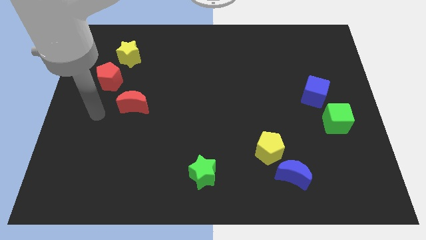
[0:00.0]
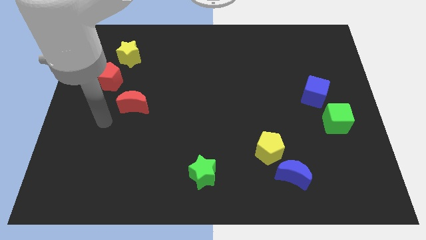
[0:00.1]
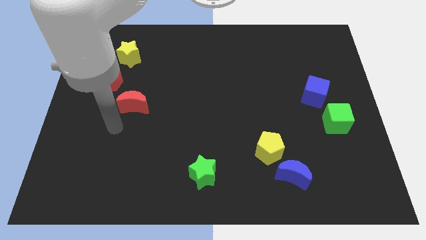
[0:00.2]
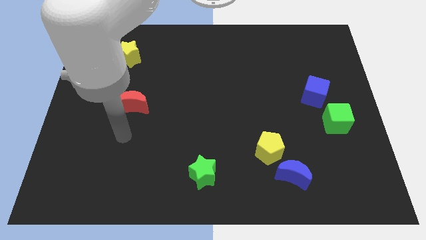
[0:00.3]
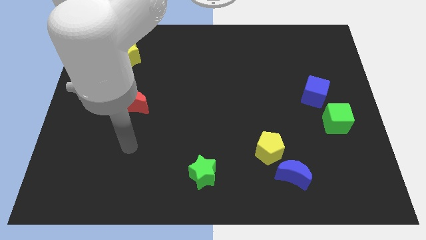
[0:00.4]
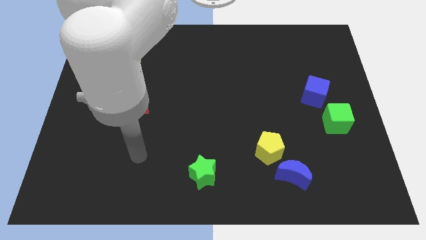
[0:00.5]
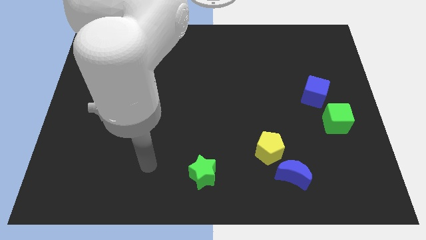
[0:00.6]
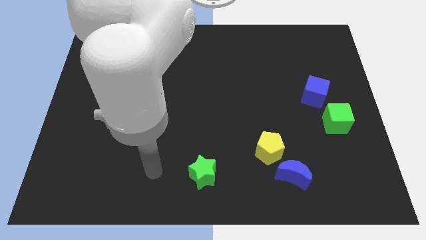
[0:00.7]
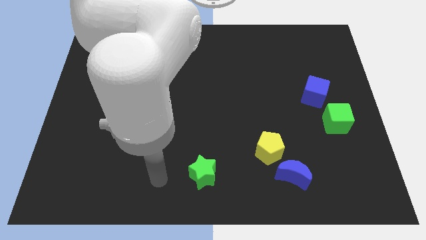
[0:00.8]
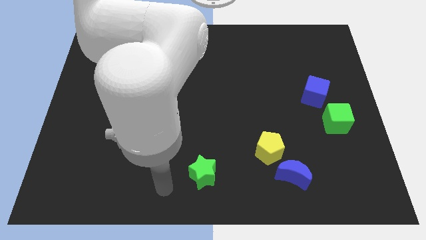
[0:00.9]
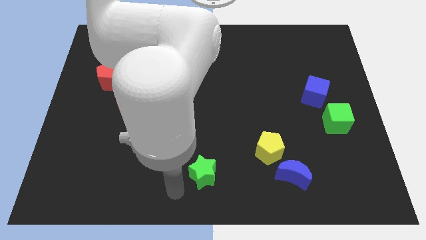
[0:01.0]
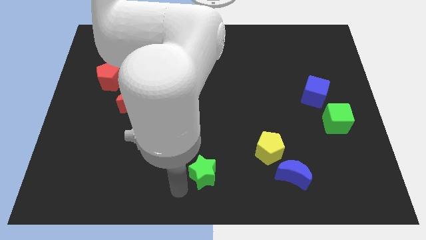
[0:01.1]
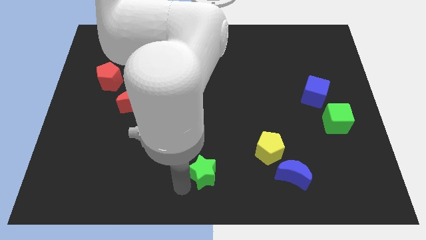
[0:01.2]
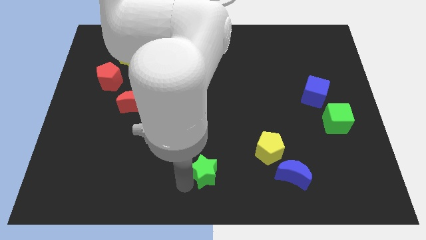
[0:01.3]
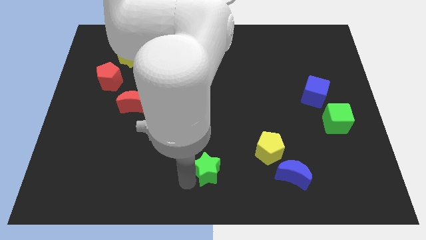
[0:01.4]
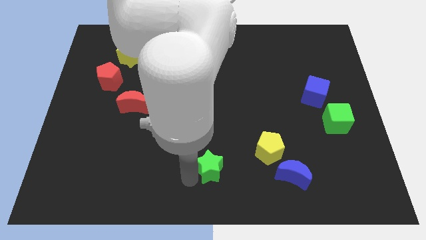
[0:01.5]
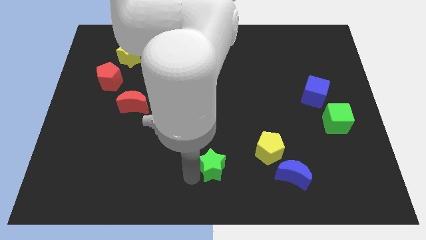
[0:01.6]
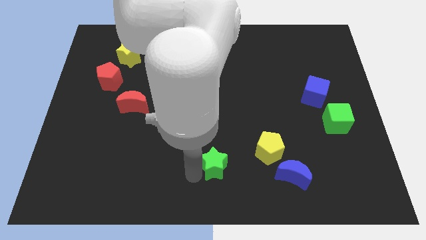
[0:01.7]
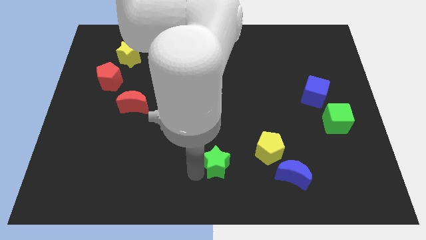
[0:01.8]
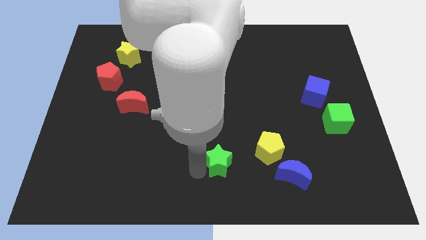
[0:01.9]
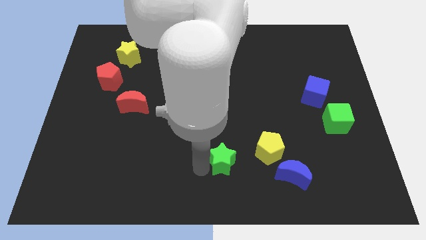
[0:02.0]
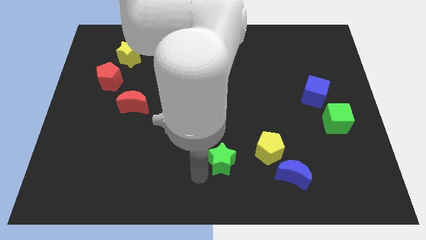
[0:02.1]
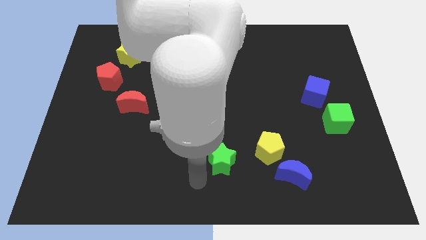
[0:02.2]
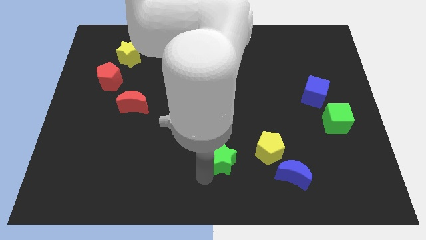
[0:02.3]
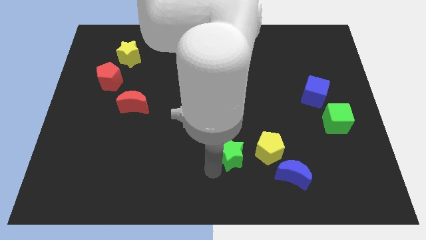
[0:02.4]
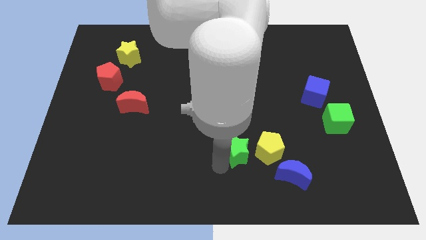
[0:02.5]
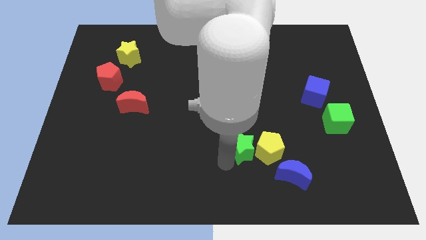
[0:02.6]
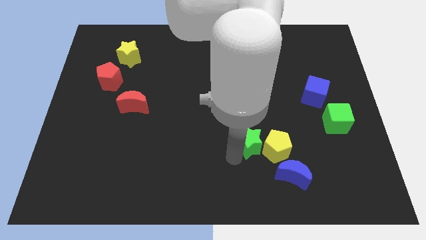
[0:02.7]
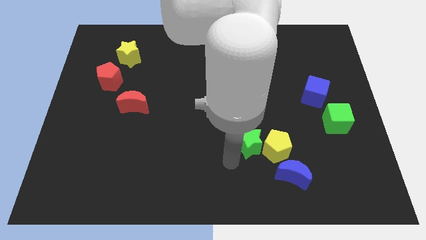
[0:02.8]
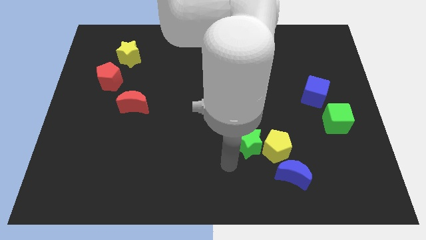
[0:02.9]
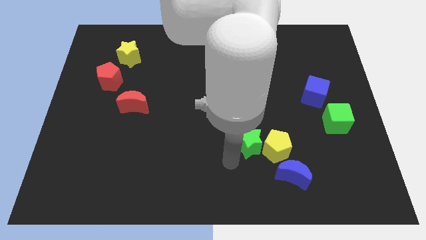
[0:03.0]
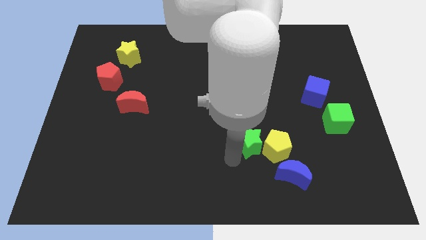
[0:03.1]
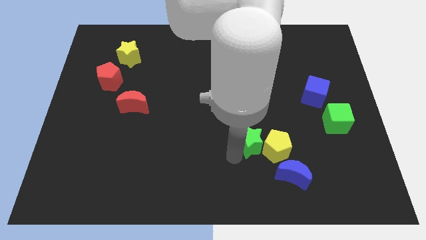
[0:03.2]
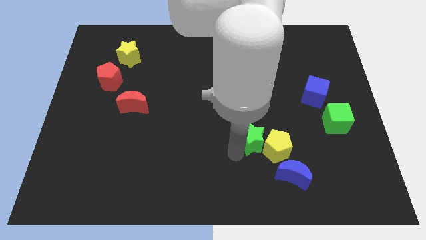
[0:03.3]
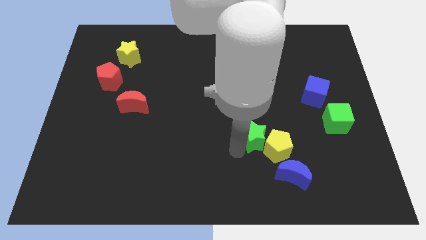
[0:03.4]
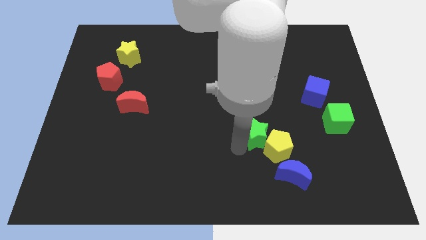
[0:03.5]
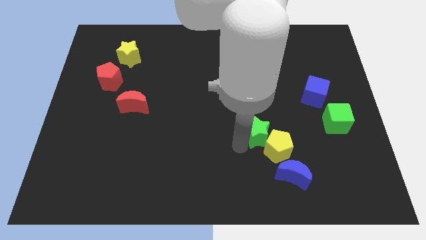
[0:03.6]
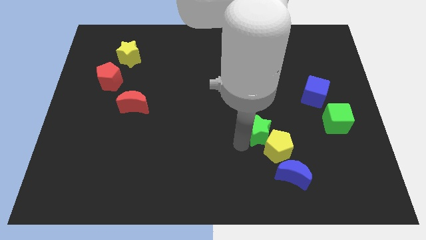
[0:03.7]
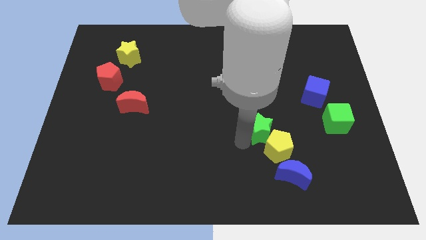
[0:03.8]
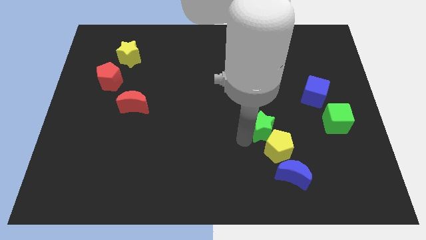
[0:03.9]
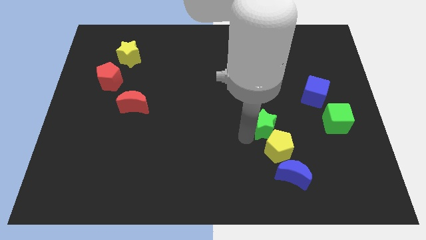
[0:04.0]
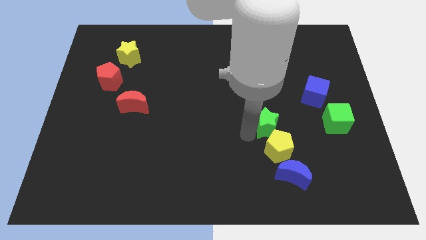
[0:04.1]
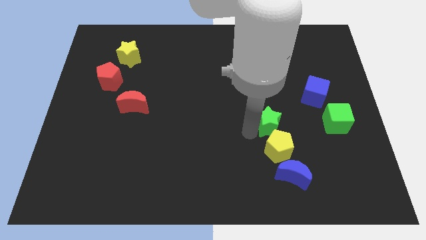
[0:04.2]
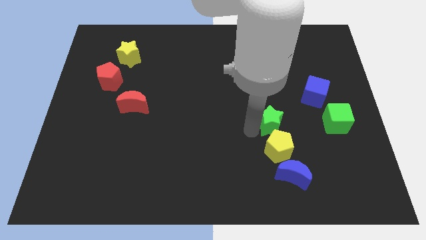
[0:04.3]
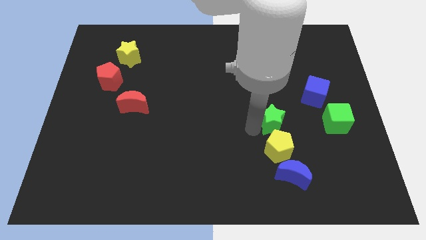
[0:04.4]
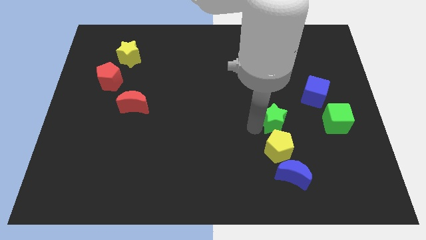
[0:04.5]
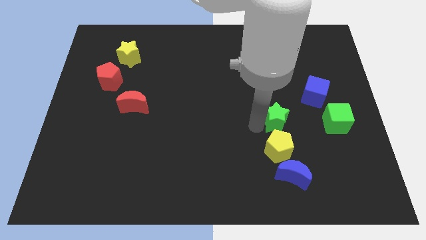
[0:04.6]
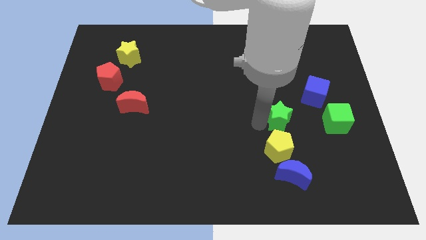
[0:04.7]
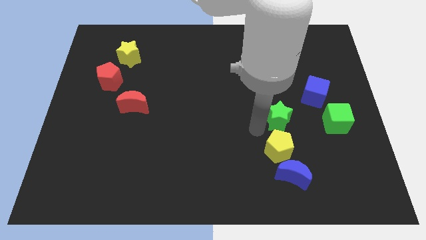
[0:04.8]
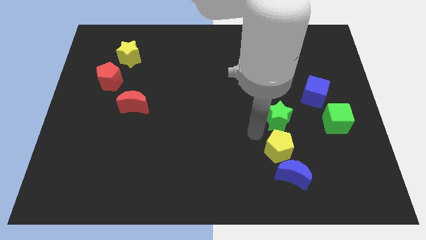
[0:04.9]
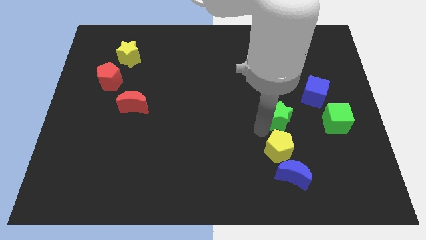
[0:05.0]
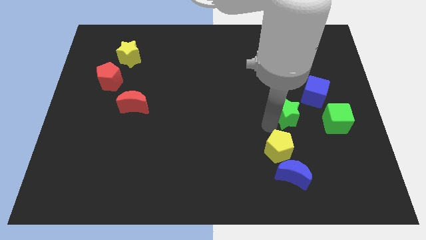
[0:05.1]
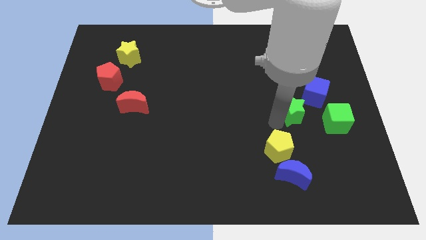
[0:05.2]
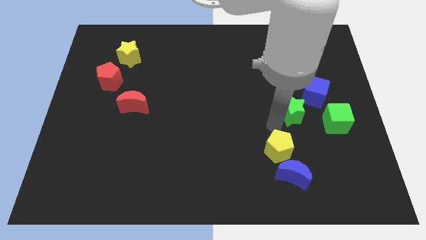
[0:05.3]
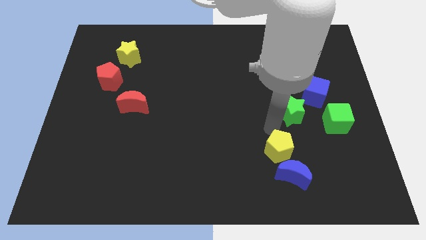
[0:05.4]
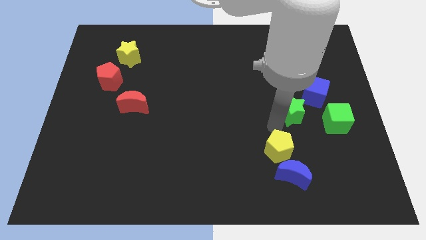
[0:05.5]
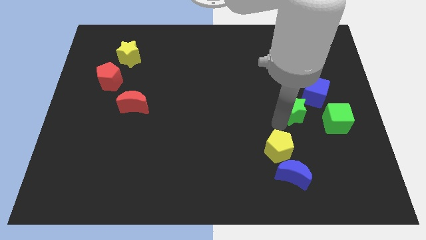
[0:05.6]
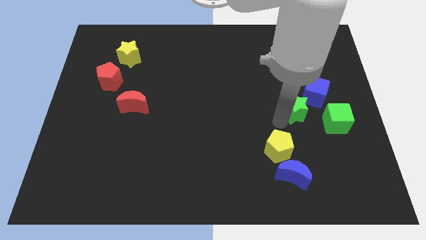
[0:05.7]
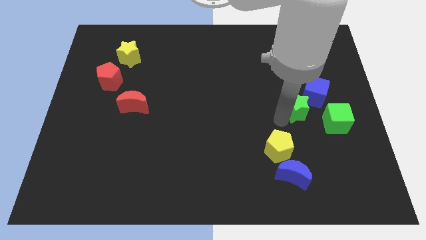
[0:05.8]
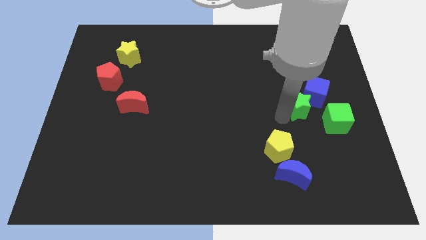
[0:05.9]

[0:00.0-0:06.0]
put the green star towards the blue cube

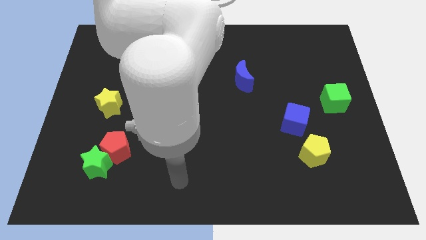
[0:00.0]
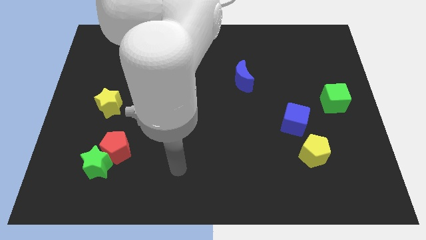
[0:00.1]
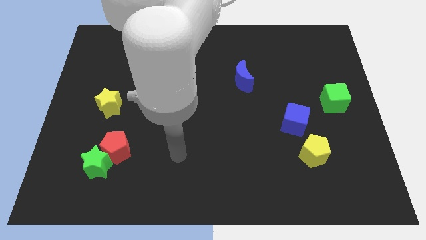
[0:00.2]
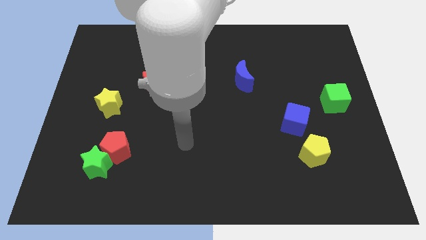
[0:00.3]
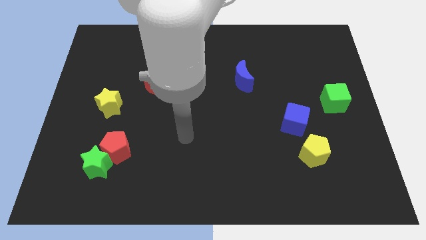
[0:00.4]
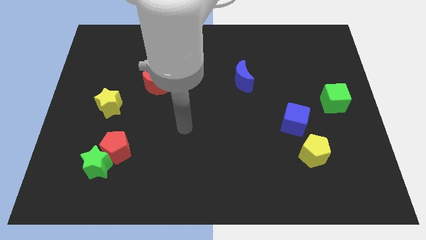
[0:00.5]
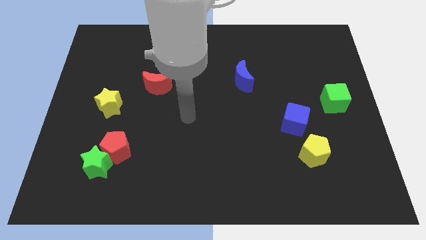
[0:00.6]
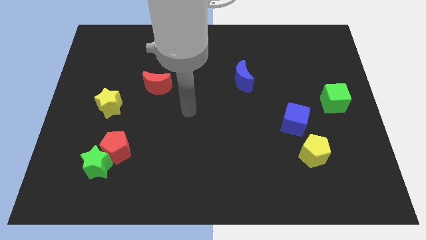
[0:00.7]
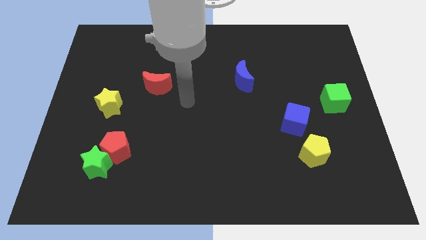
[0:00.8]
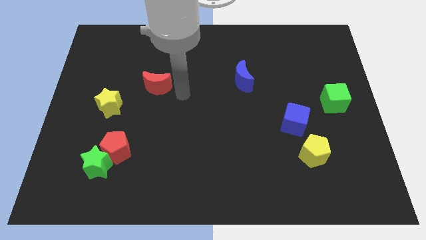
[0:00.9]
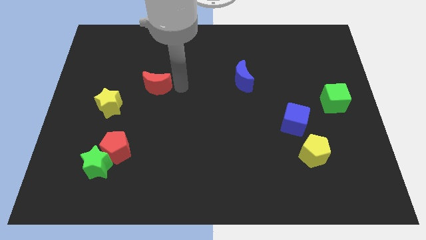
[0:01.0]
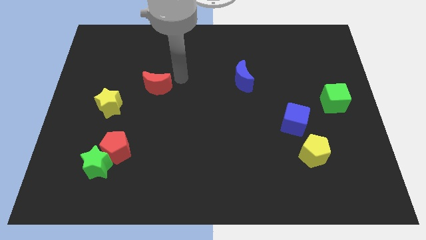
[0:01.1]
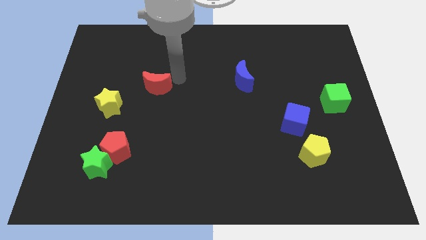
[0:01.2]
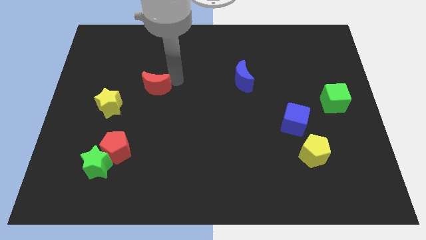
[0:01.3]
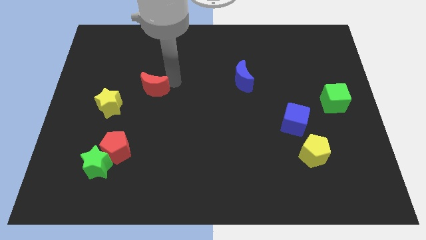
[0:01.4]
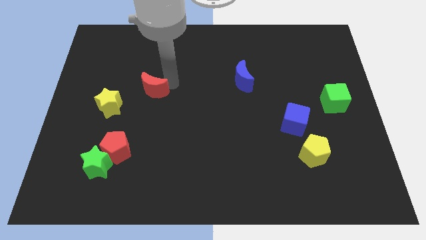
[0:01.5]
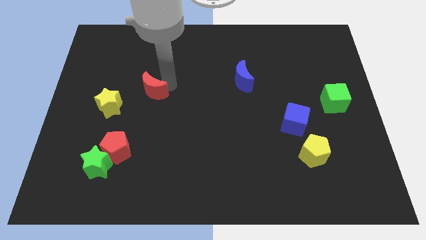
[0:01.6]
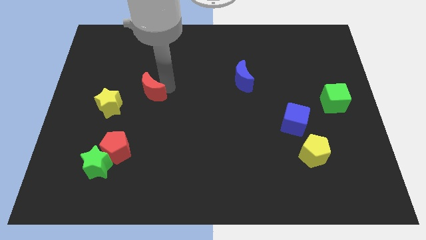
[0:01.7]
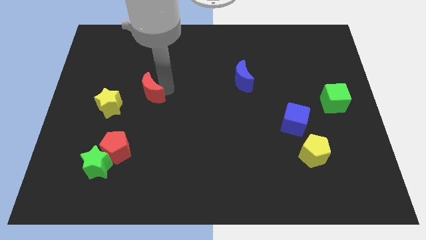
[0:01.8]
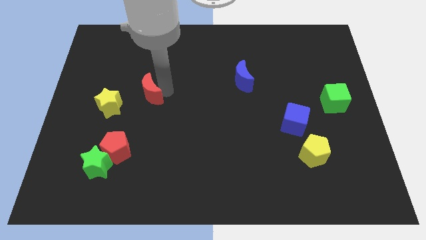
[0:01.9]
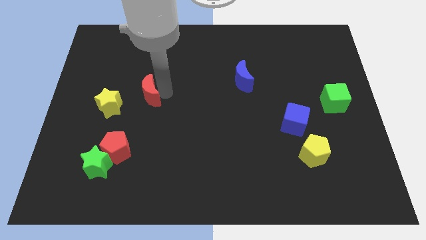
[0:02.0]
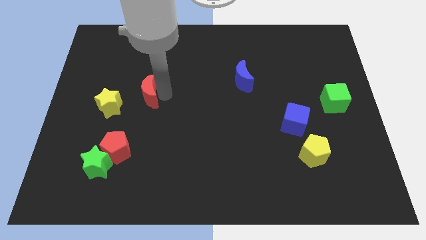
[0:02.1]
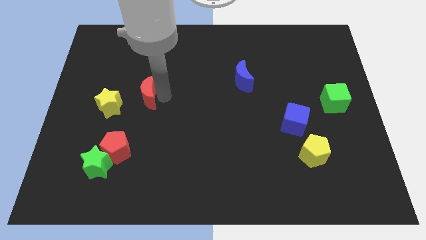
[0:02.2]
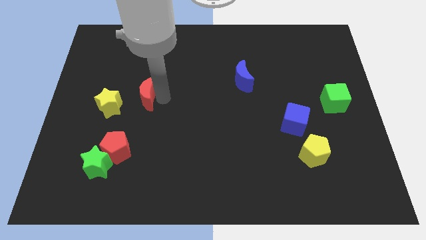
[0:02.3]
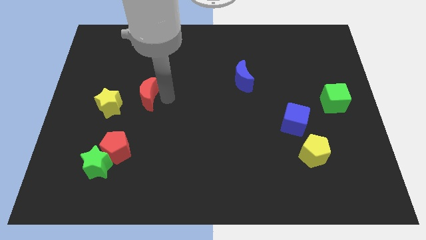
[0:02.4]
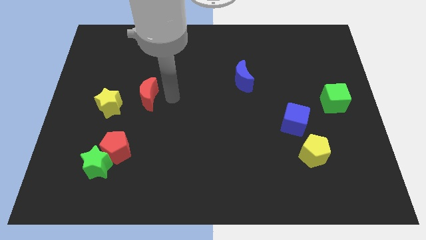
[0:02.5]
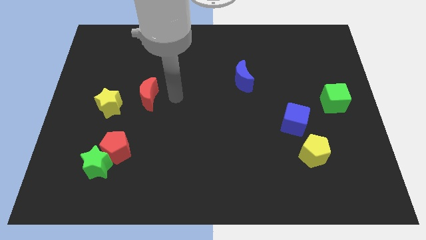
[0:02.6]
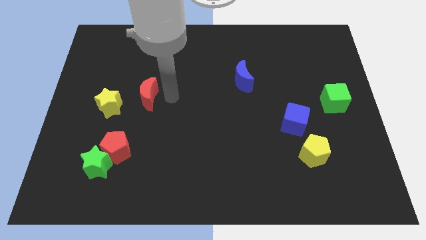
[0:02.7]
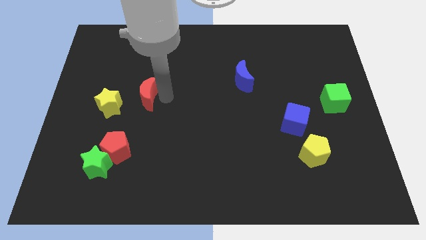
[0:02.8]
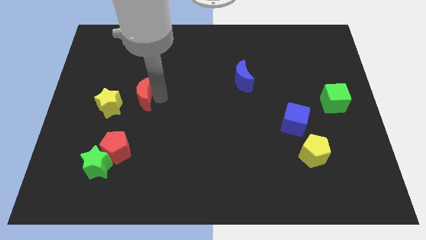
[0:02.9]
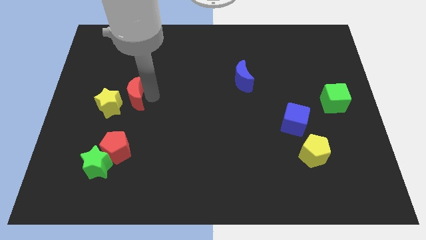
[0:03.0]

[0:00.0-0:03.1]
slide the red moon towards the yellow star
